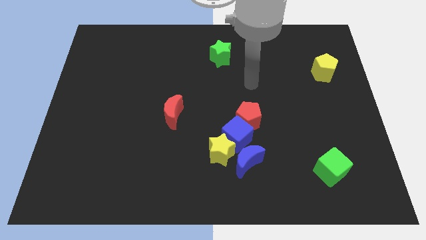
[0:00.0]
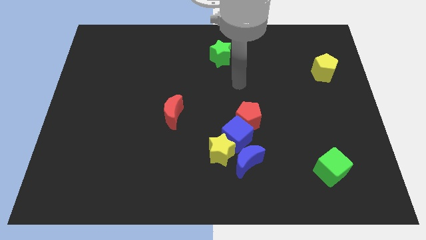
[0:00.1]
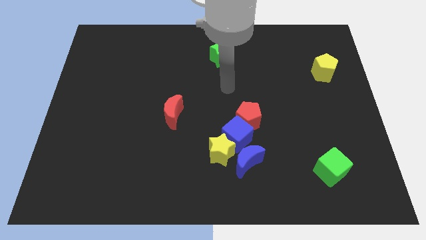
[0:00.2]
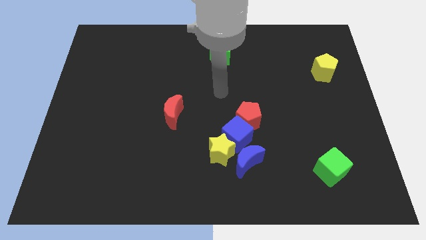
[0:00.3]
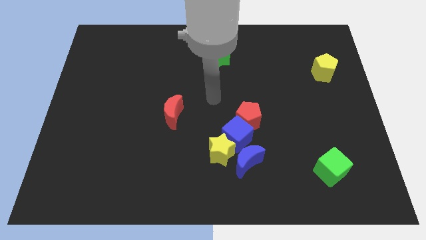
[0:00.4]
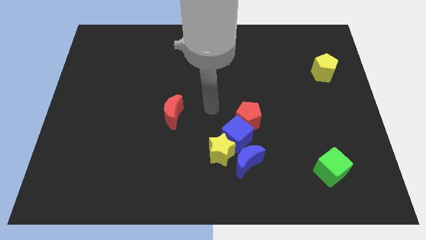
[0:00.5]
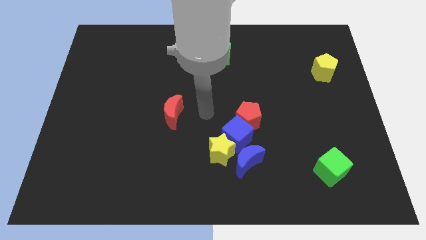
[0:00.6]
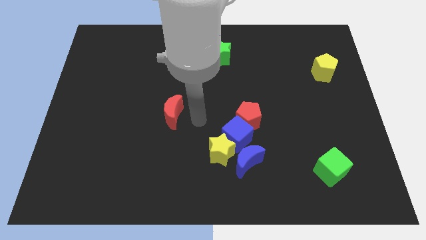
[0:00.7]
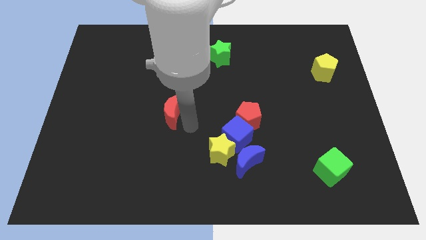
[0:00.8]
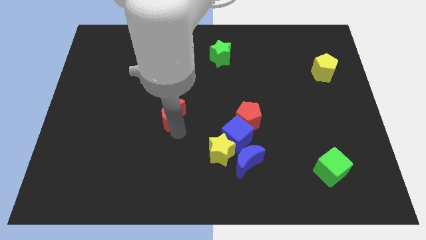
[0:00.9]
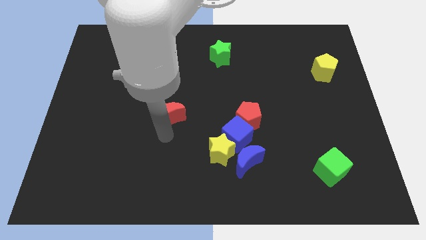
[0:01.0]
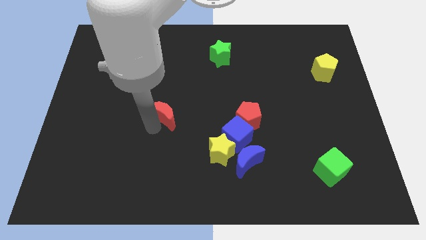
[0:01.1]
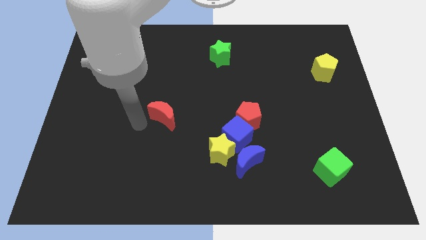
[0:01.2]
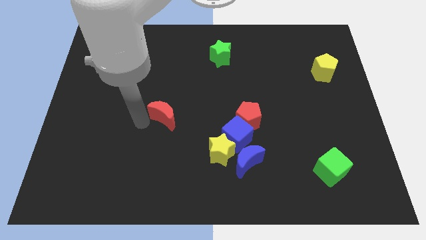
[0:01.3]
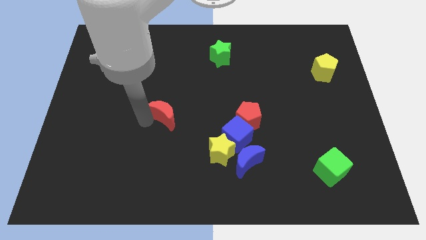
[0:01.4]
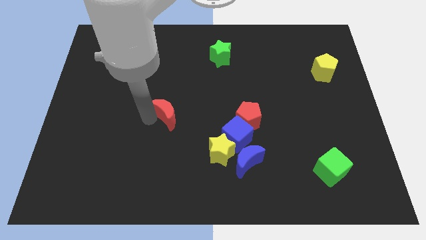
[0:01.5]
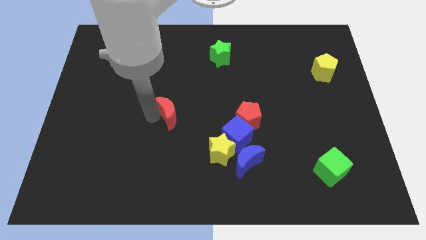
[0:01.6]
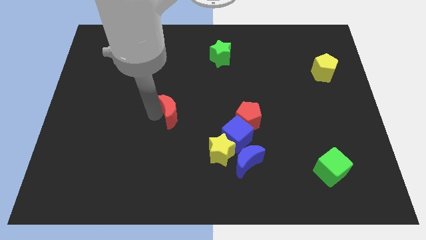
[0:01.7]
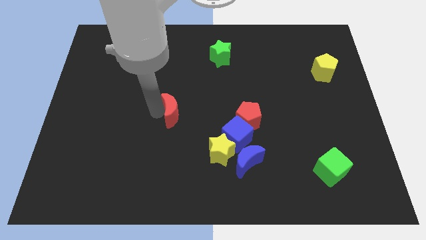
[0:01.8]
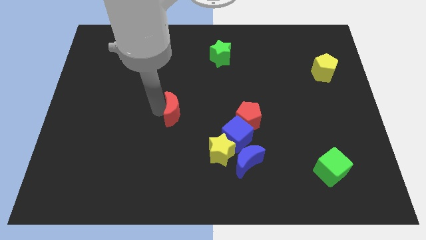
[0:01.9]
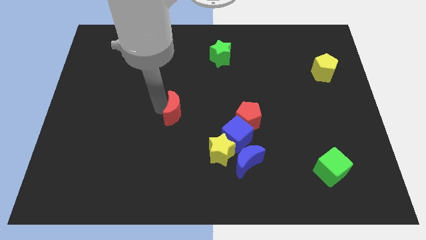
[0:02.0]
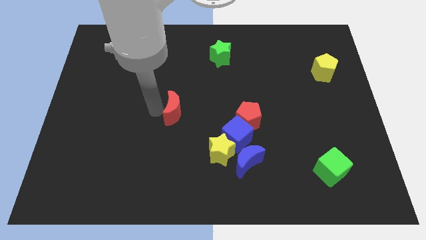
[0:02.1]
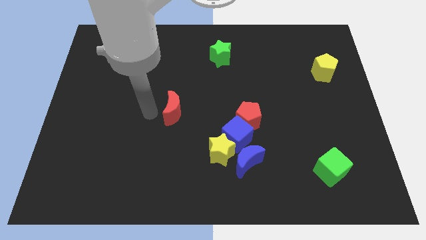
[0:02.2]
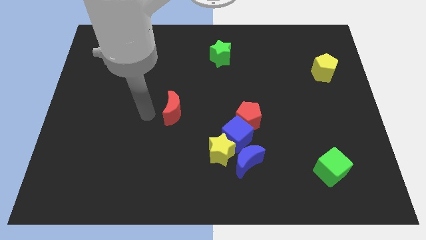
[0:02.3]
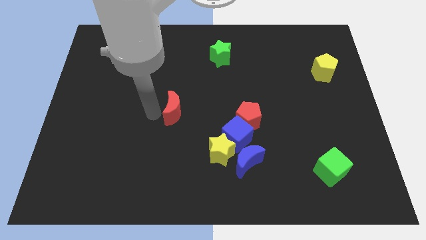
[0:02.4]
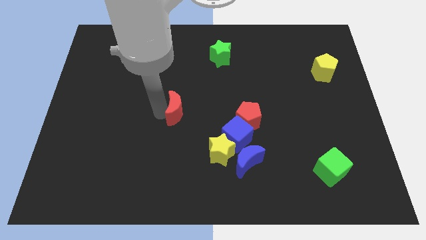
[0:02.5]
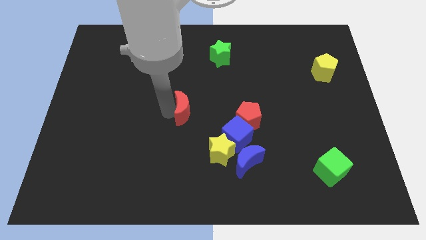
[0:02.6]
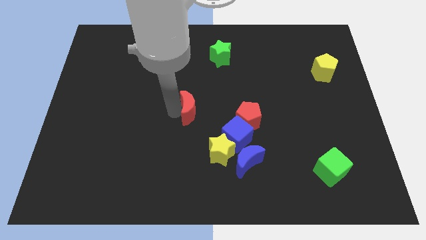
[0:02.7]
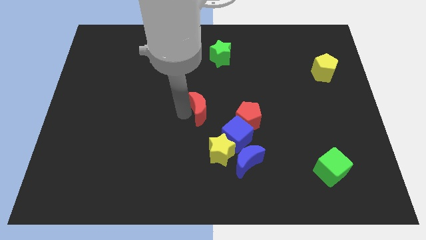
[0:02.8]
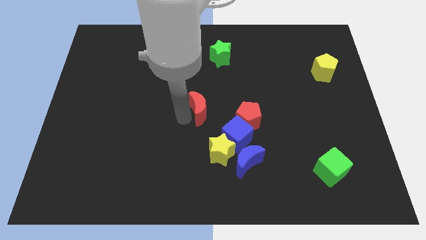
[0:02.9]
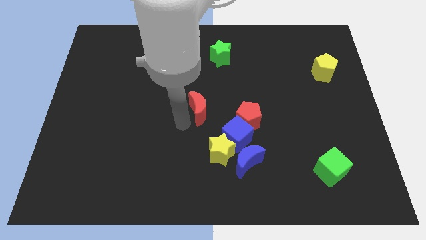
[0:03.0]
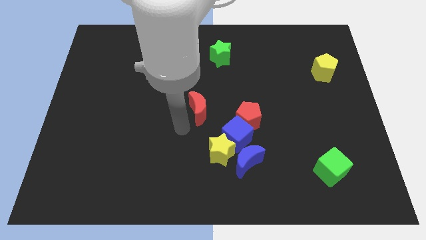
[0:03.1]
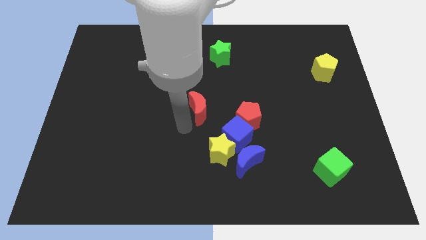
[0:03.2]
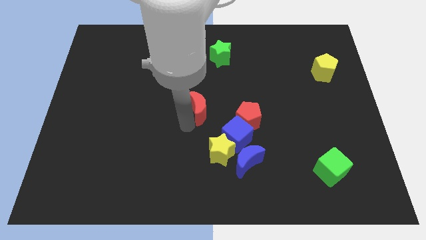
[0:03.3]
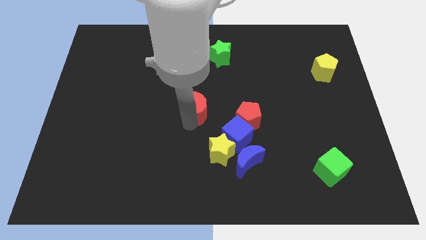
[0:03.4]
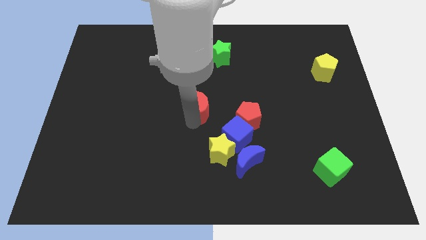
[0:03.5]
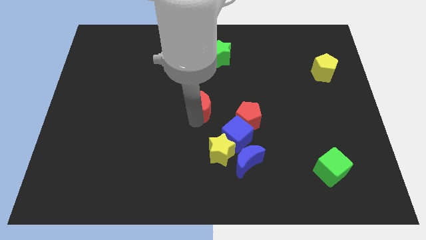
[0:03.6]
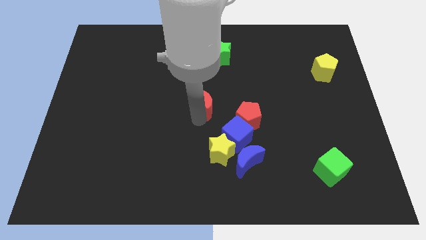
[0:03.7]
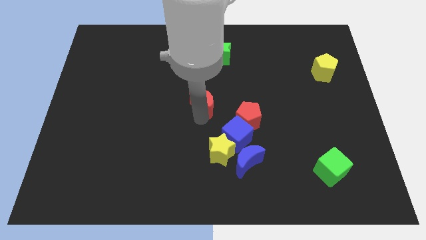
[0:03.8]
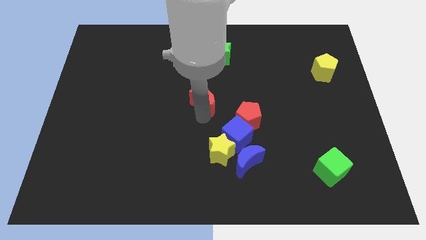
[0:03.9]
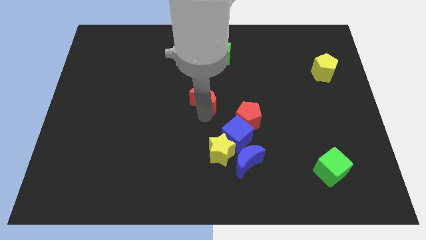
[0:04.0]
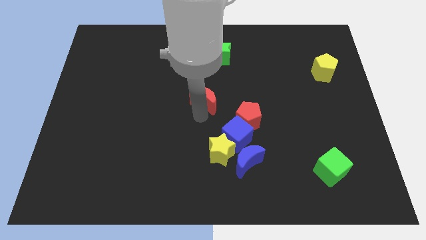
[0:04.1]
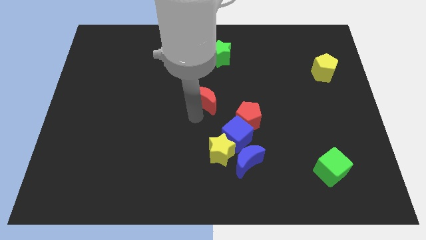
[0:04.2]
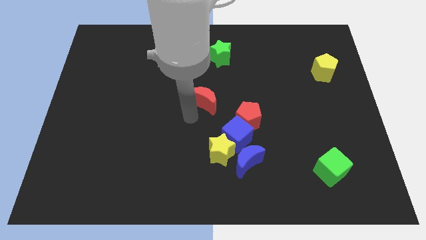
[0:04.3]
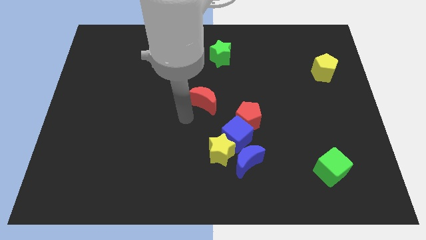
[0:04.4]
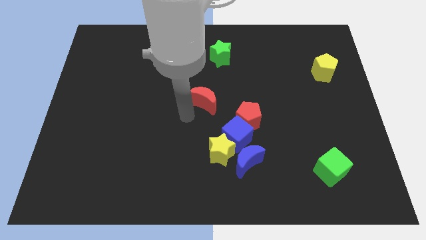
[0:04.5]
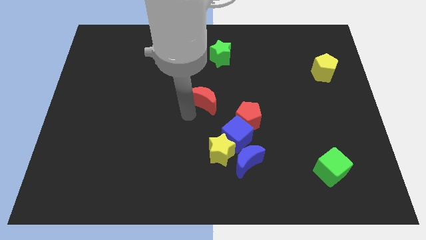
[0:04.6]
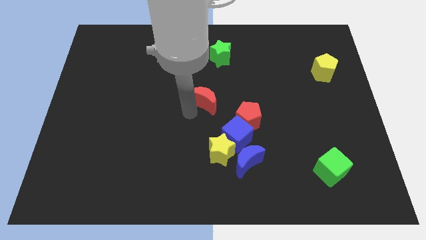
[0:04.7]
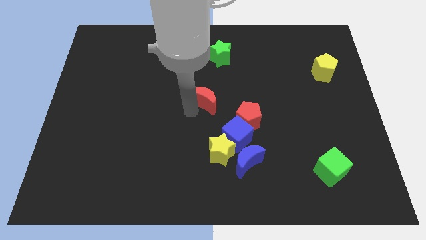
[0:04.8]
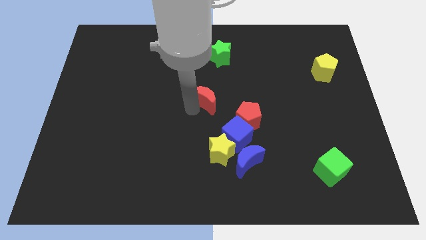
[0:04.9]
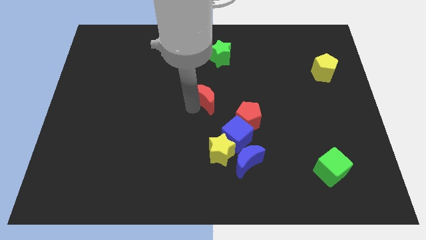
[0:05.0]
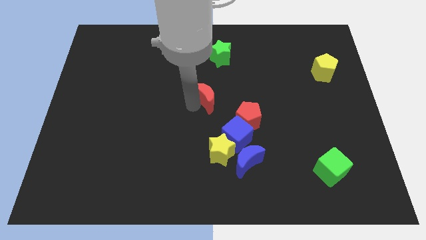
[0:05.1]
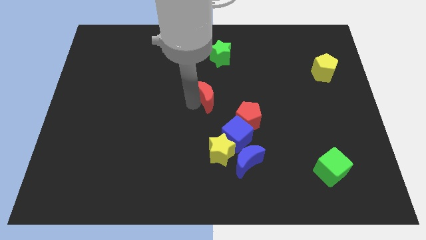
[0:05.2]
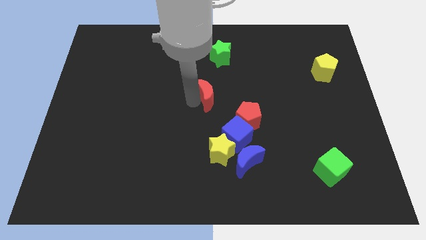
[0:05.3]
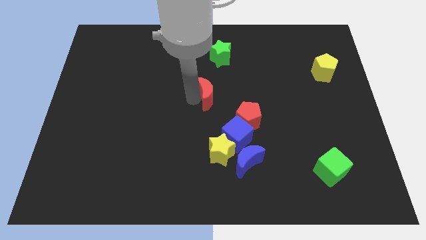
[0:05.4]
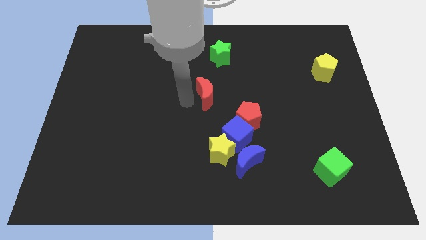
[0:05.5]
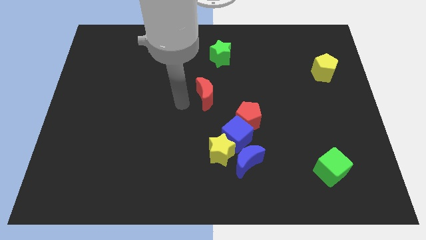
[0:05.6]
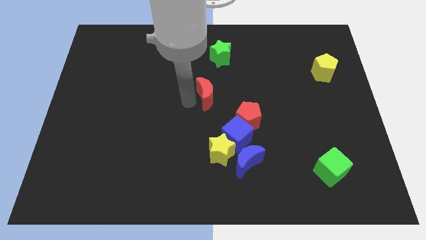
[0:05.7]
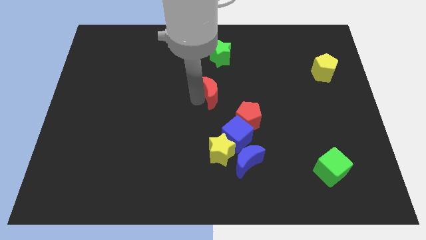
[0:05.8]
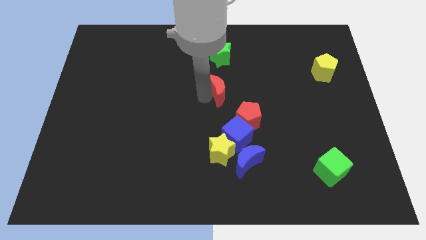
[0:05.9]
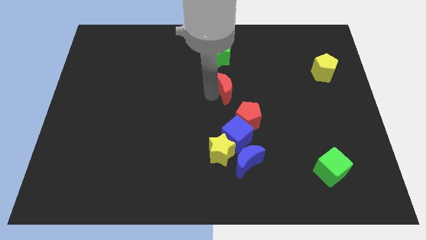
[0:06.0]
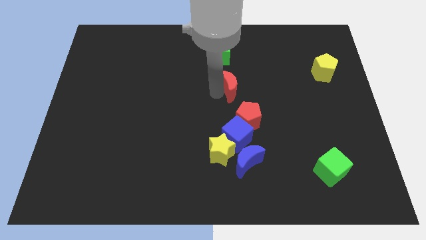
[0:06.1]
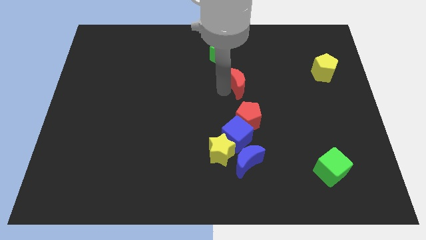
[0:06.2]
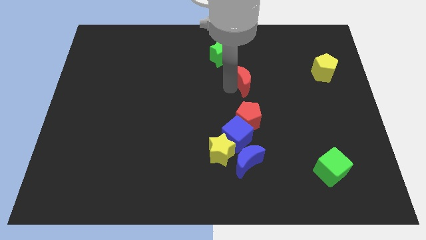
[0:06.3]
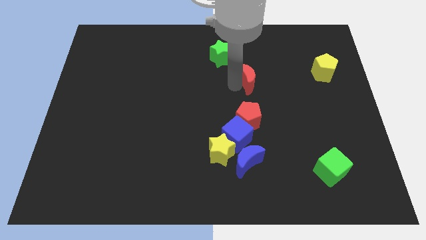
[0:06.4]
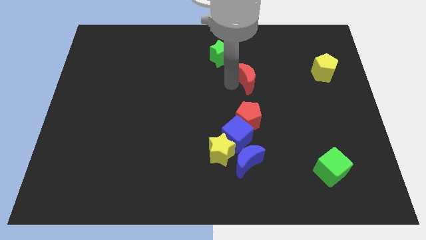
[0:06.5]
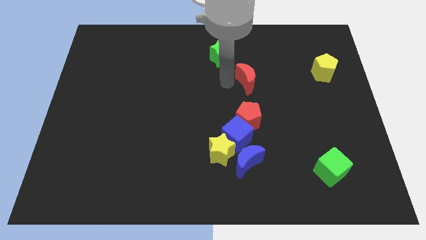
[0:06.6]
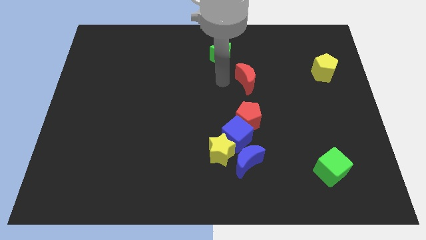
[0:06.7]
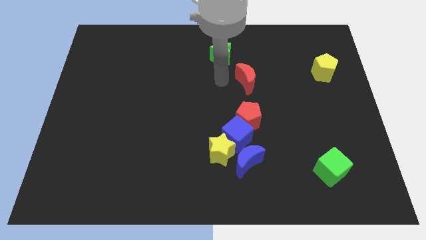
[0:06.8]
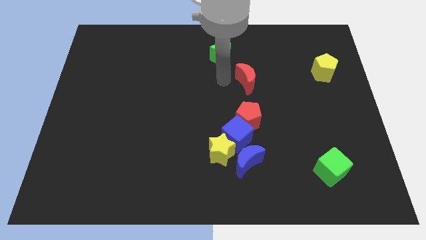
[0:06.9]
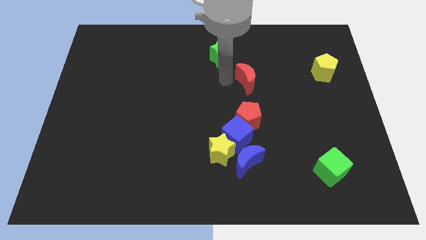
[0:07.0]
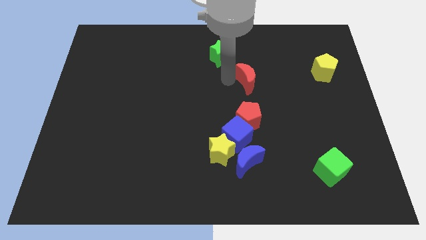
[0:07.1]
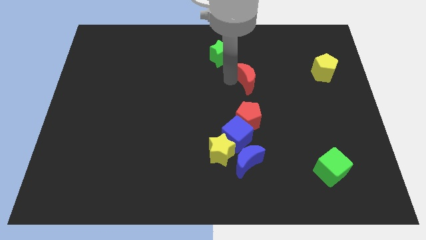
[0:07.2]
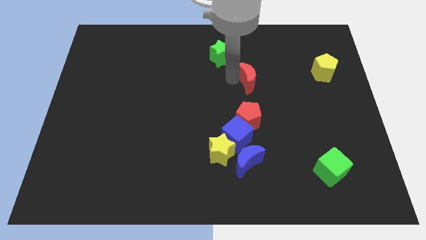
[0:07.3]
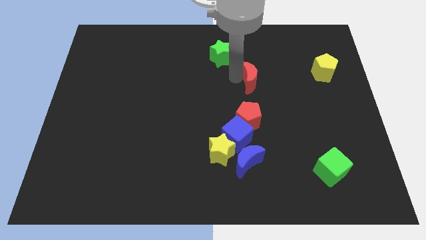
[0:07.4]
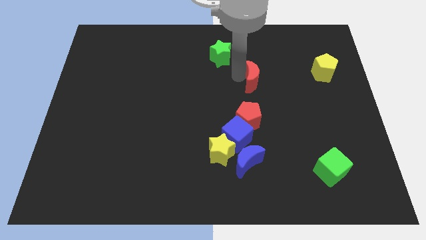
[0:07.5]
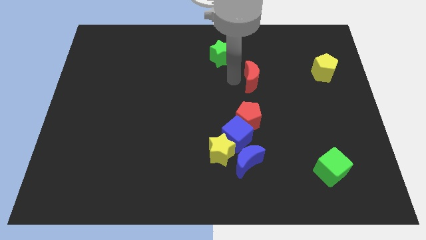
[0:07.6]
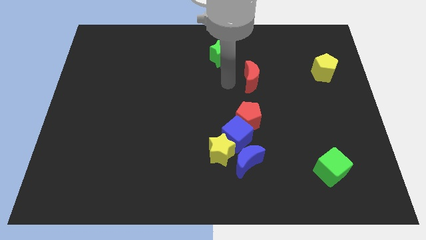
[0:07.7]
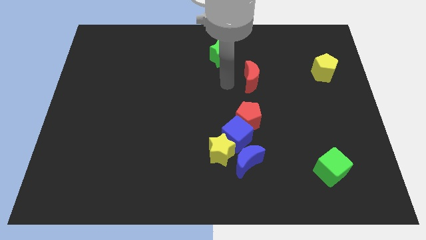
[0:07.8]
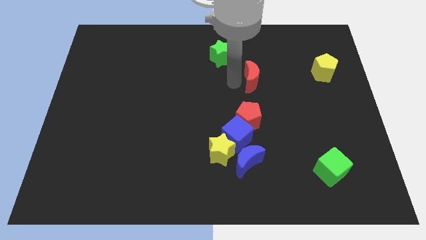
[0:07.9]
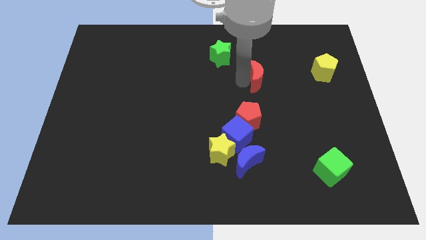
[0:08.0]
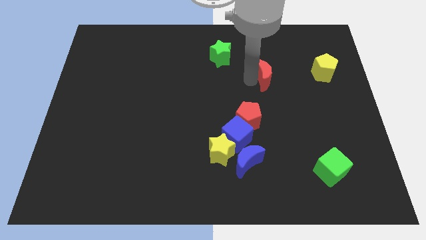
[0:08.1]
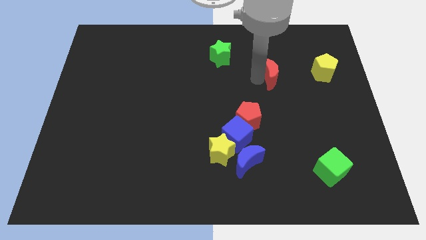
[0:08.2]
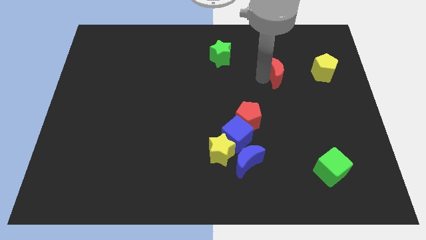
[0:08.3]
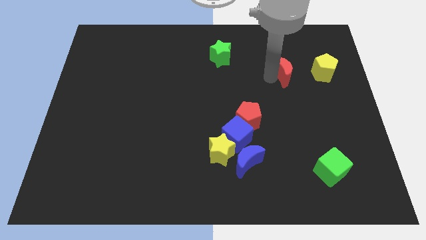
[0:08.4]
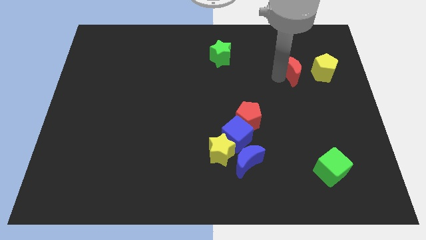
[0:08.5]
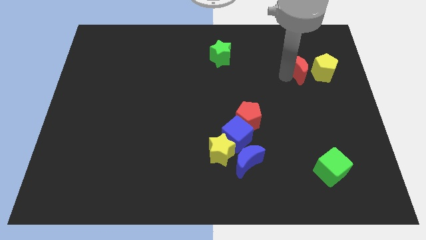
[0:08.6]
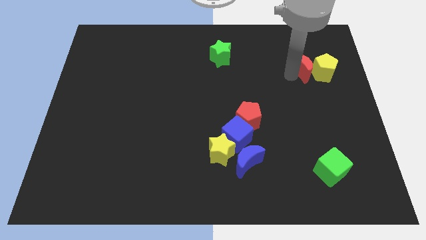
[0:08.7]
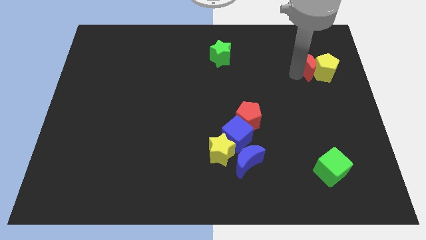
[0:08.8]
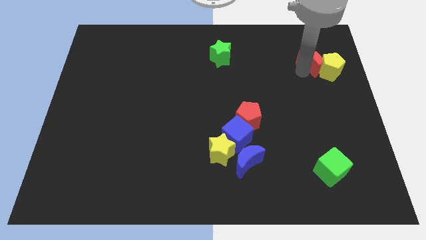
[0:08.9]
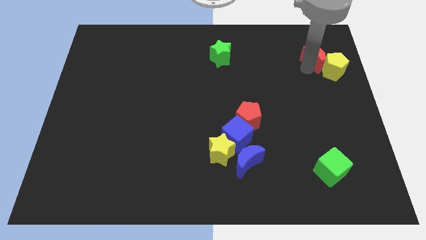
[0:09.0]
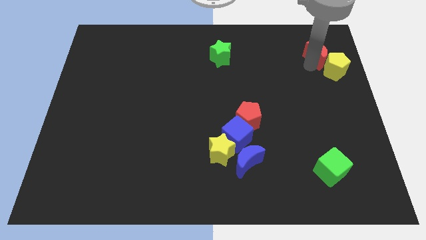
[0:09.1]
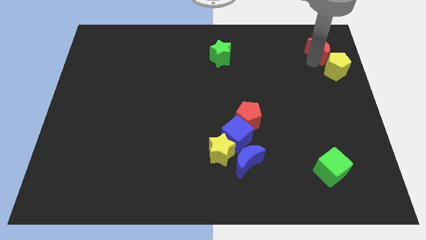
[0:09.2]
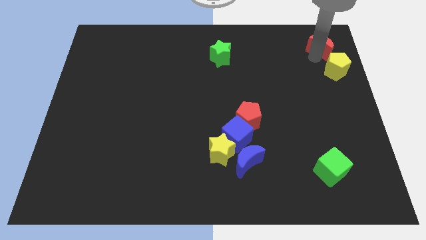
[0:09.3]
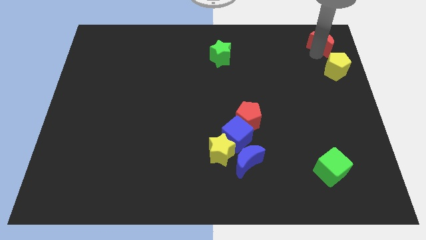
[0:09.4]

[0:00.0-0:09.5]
push the red moon to the top right
